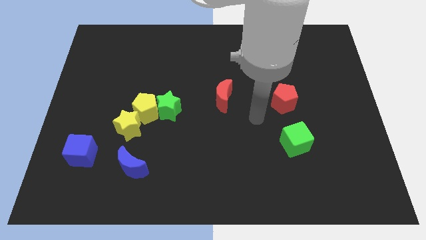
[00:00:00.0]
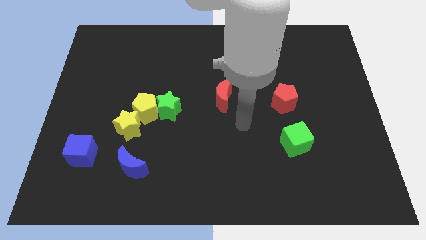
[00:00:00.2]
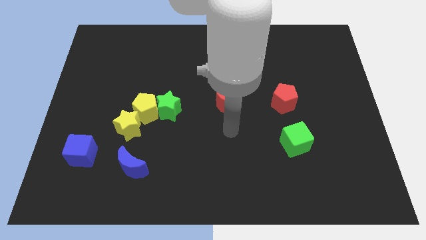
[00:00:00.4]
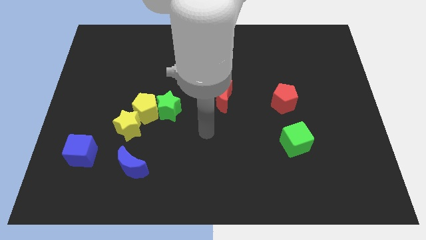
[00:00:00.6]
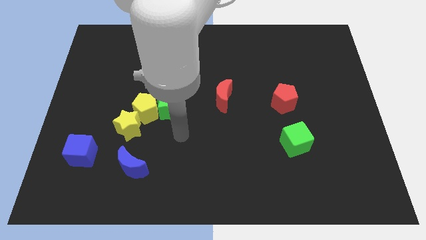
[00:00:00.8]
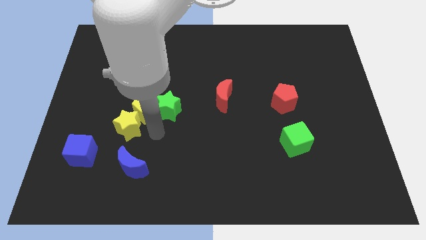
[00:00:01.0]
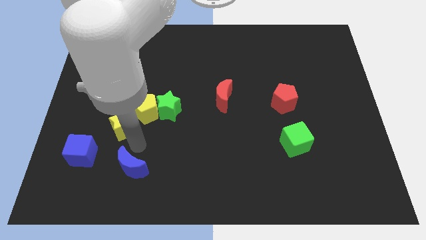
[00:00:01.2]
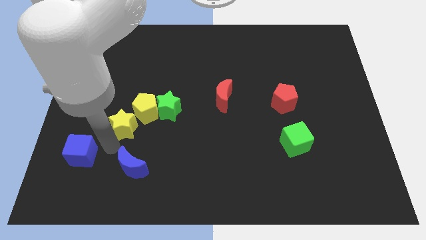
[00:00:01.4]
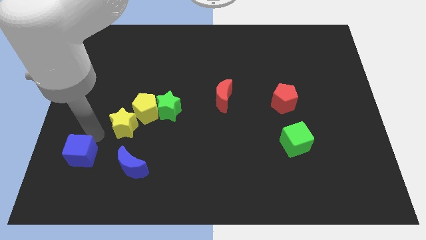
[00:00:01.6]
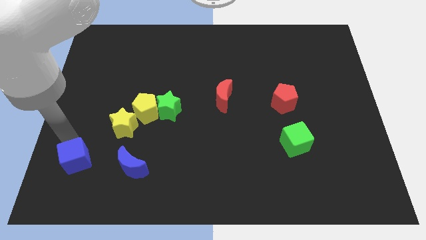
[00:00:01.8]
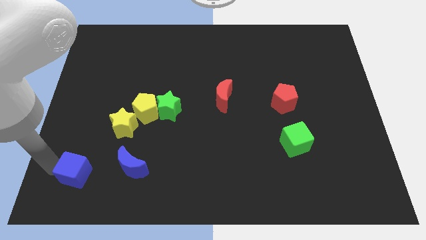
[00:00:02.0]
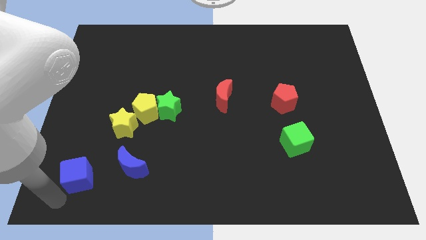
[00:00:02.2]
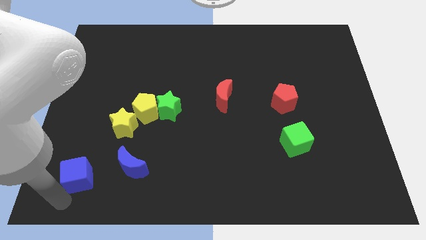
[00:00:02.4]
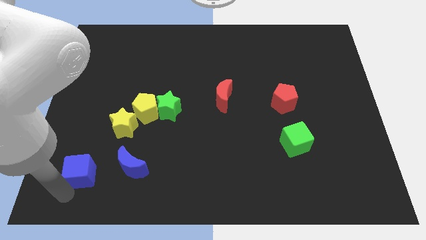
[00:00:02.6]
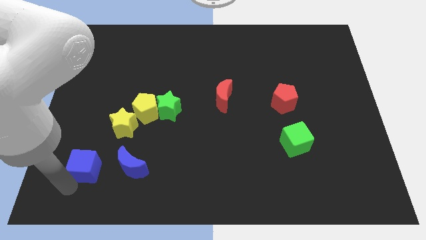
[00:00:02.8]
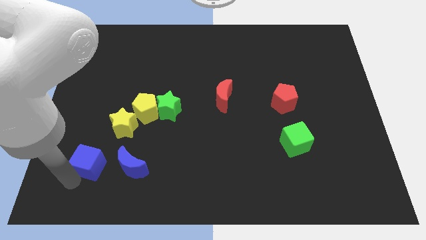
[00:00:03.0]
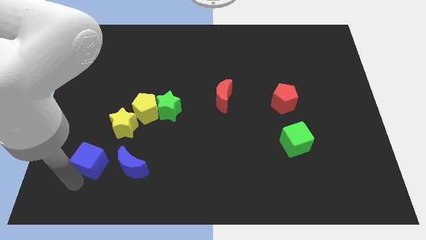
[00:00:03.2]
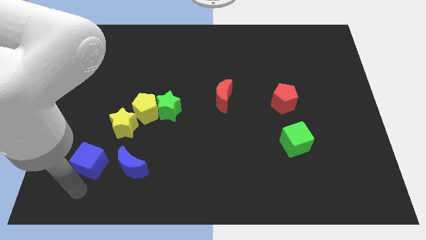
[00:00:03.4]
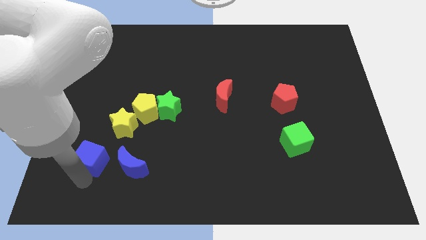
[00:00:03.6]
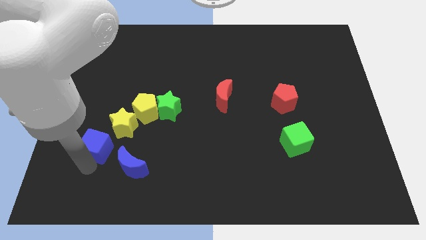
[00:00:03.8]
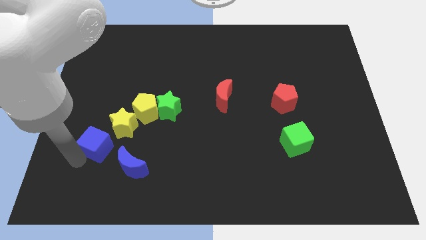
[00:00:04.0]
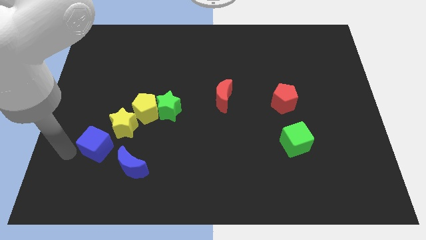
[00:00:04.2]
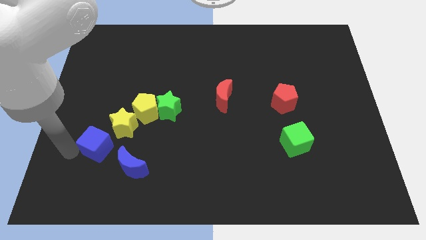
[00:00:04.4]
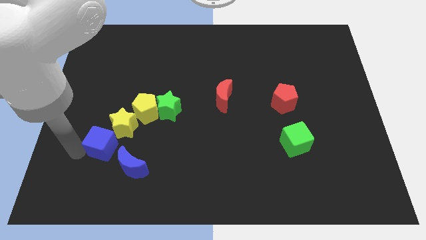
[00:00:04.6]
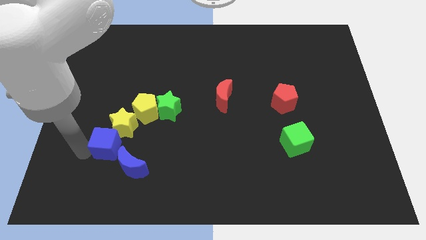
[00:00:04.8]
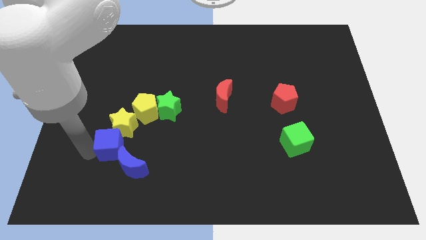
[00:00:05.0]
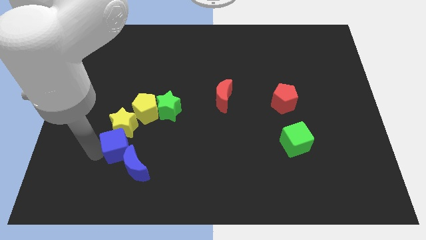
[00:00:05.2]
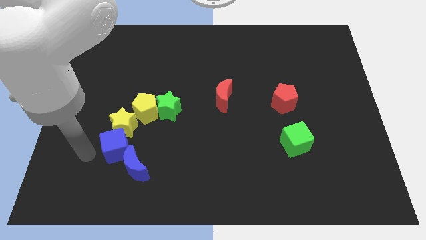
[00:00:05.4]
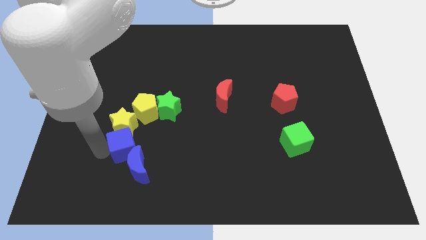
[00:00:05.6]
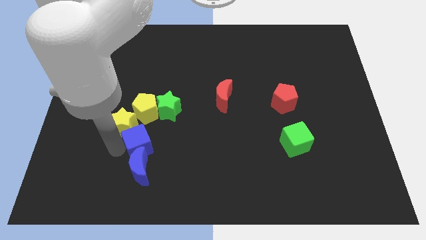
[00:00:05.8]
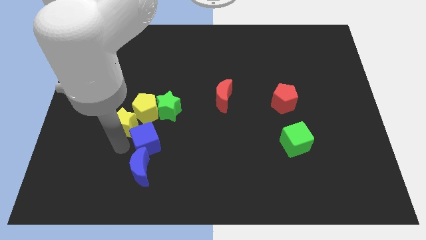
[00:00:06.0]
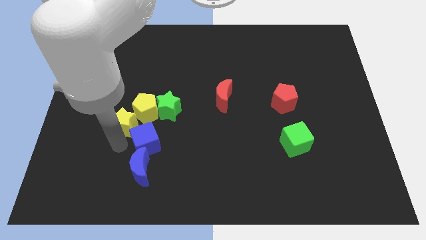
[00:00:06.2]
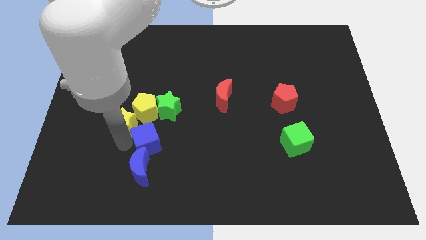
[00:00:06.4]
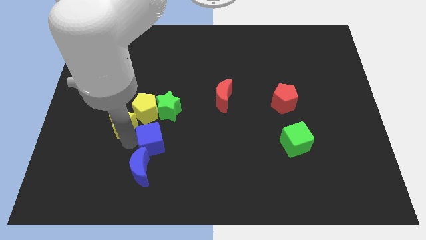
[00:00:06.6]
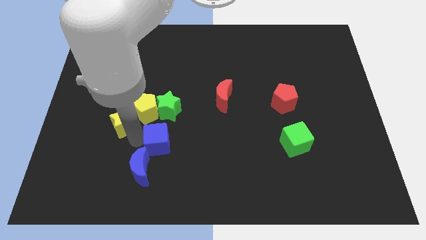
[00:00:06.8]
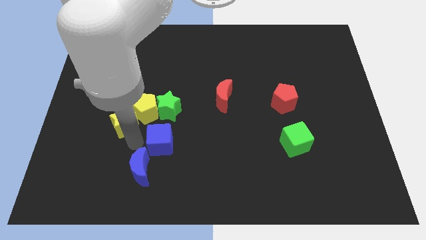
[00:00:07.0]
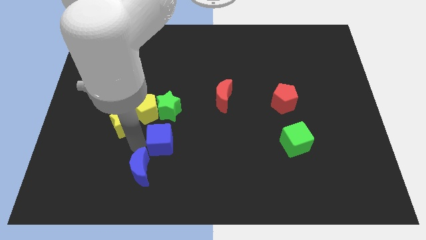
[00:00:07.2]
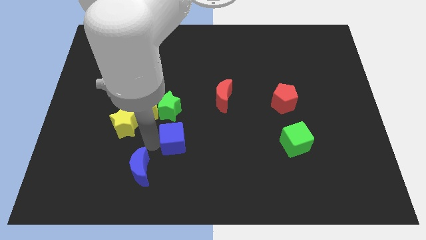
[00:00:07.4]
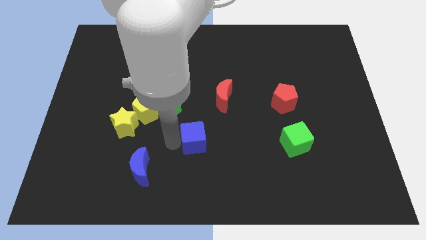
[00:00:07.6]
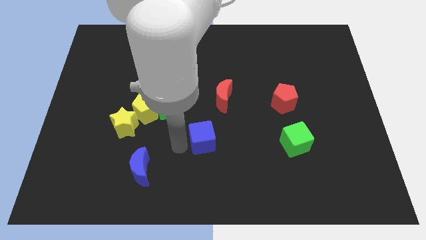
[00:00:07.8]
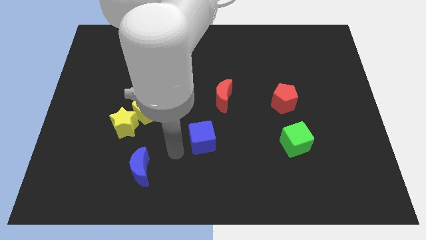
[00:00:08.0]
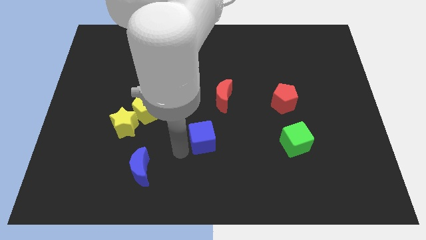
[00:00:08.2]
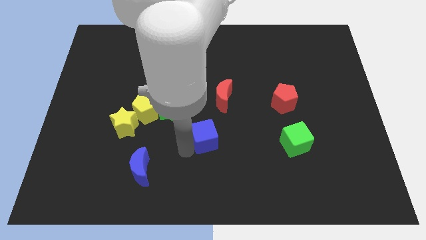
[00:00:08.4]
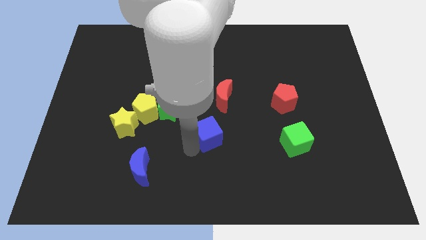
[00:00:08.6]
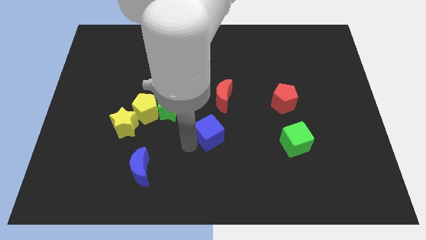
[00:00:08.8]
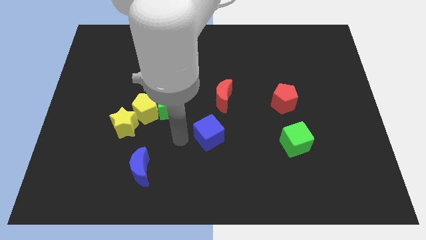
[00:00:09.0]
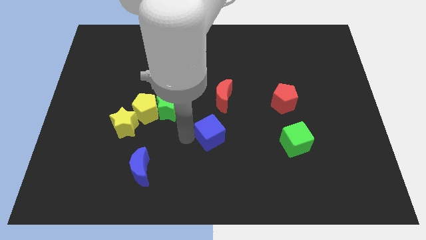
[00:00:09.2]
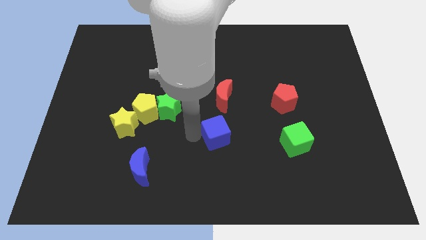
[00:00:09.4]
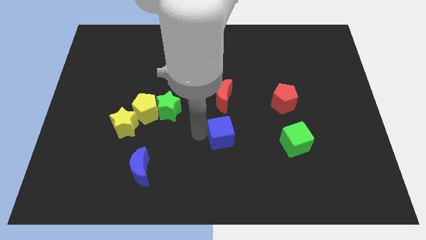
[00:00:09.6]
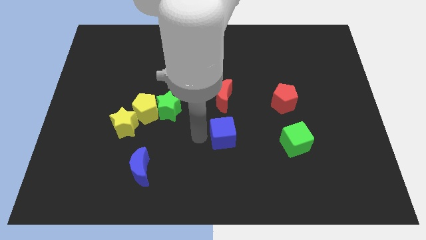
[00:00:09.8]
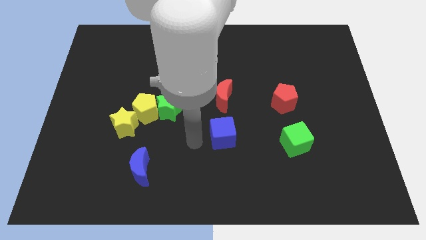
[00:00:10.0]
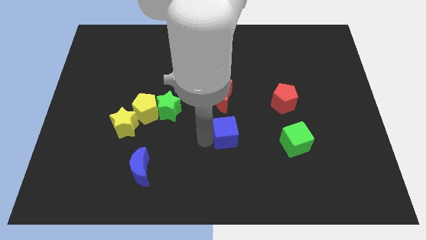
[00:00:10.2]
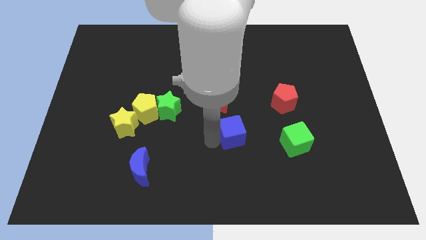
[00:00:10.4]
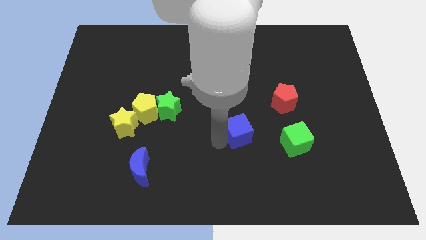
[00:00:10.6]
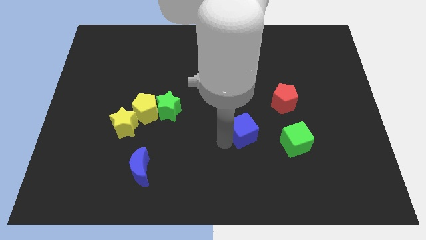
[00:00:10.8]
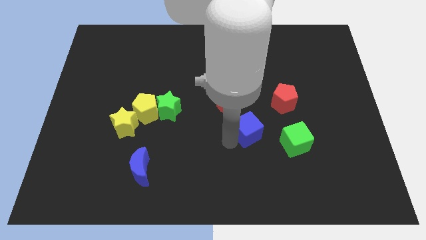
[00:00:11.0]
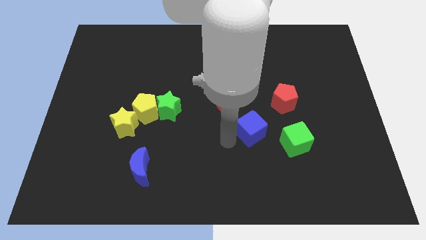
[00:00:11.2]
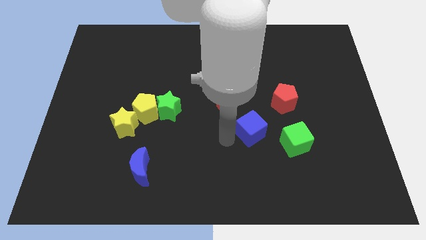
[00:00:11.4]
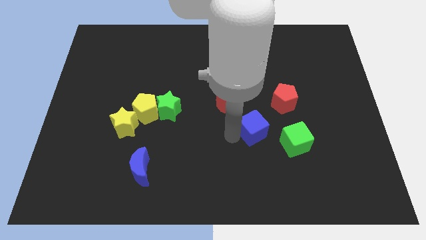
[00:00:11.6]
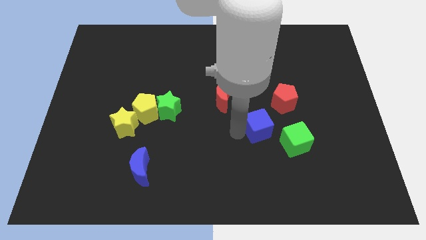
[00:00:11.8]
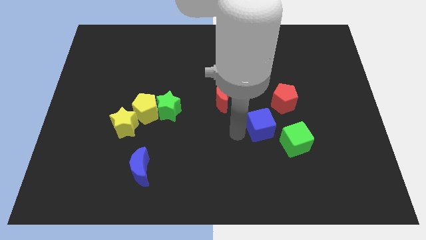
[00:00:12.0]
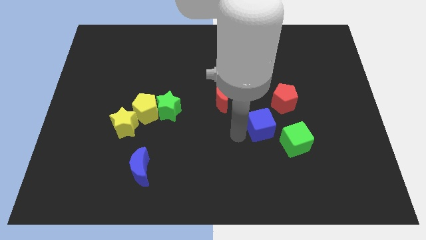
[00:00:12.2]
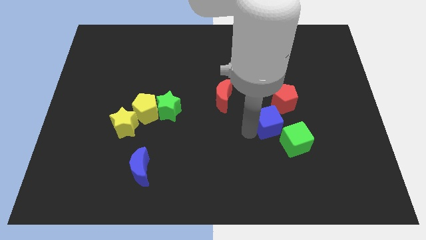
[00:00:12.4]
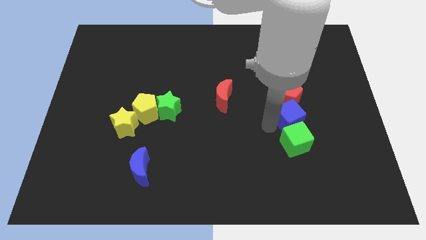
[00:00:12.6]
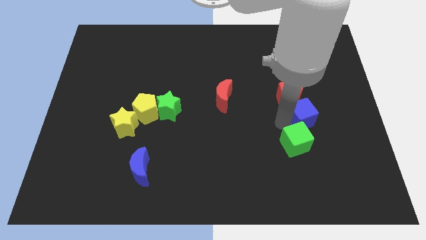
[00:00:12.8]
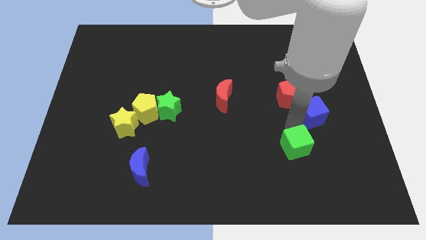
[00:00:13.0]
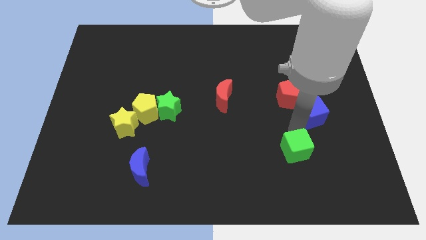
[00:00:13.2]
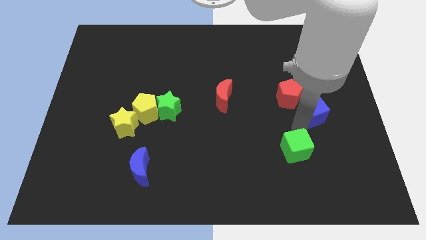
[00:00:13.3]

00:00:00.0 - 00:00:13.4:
slide the blue cube to the right of the red pentagon
